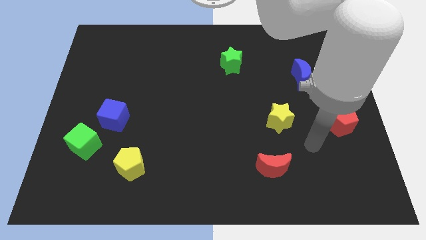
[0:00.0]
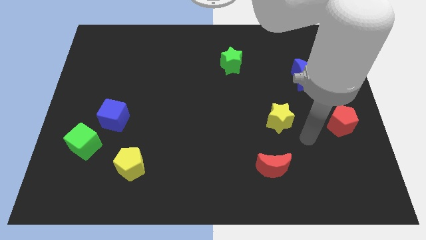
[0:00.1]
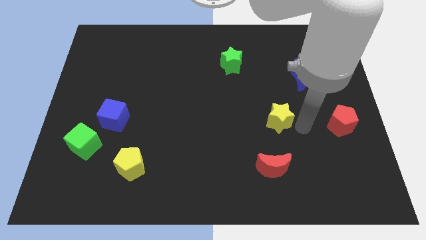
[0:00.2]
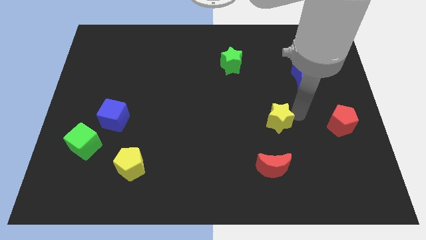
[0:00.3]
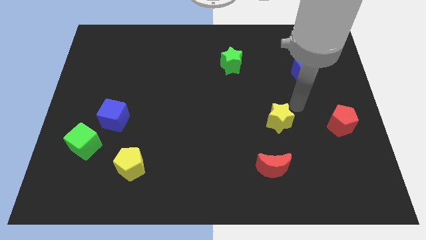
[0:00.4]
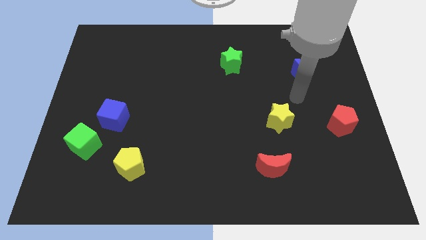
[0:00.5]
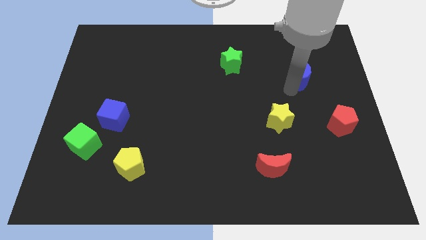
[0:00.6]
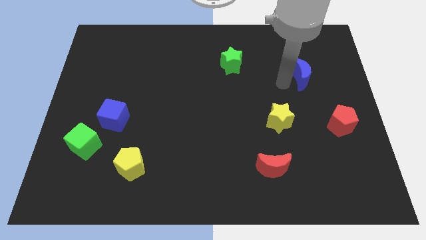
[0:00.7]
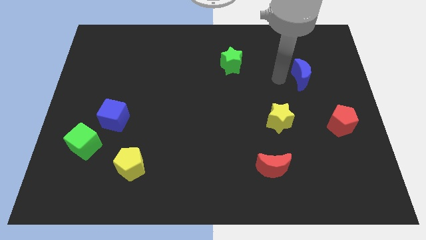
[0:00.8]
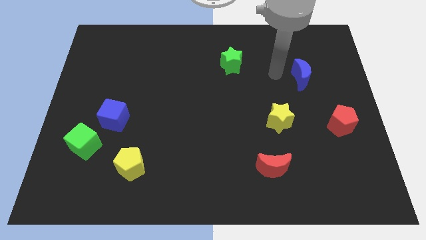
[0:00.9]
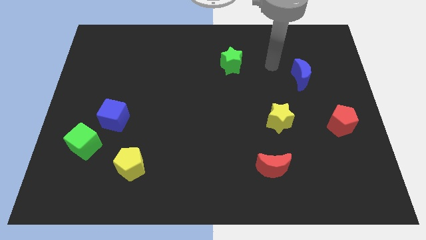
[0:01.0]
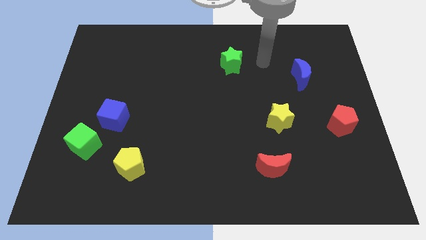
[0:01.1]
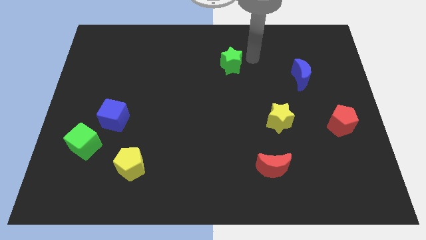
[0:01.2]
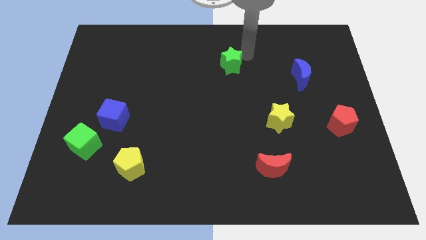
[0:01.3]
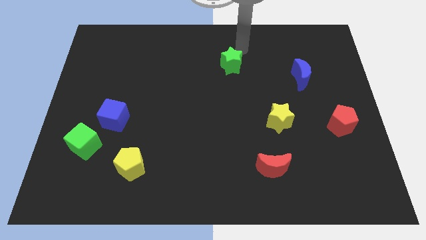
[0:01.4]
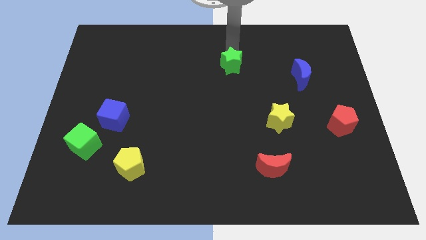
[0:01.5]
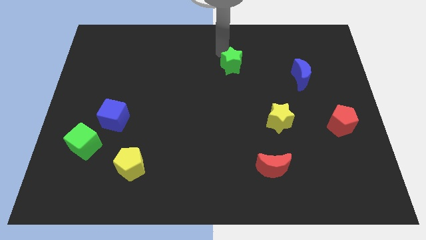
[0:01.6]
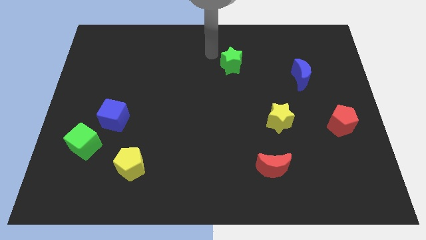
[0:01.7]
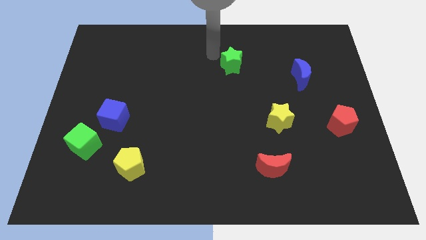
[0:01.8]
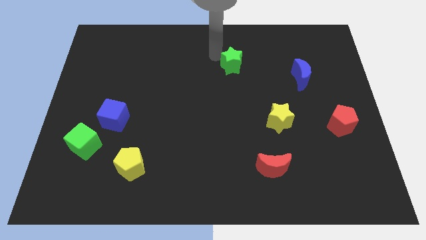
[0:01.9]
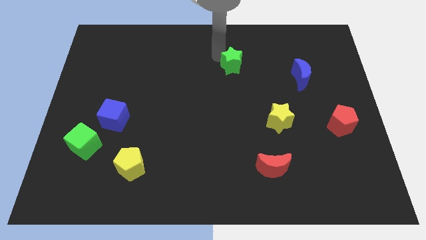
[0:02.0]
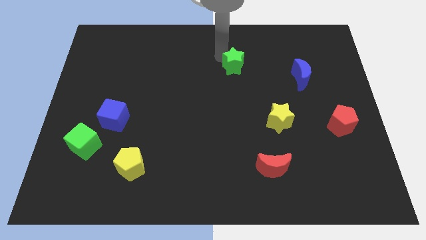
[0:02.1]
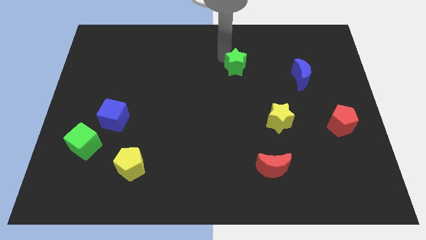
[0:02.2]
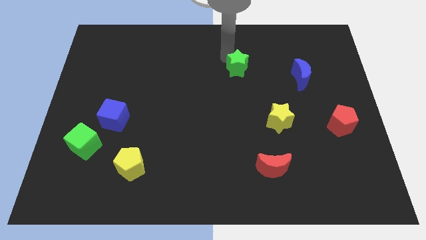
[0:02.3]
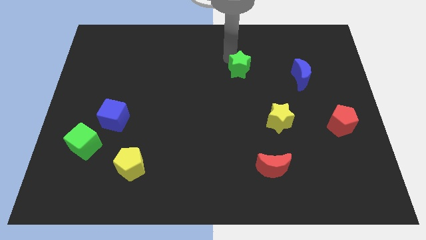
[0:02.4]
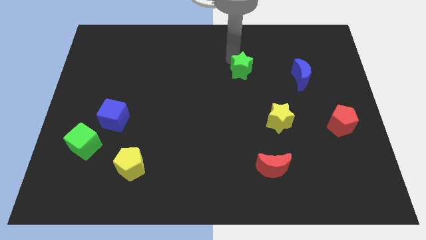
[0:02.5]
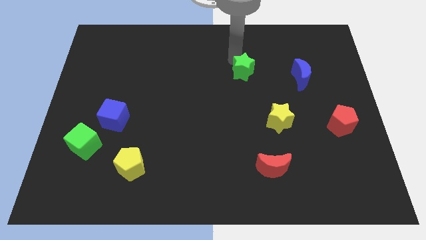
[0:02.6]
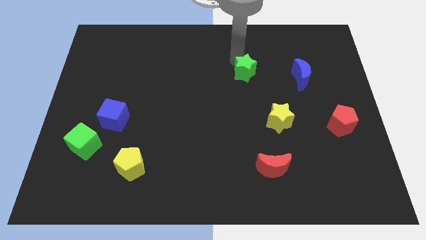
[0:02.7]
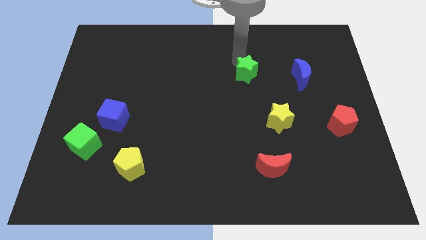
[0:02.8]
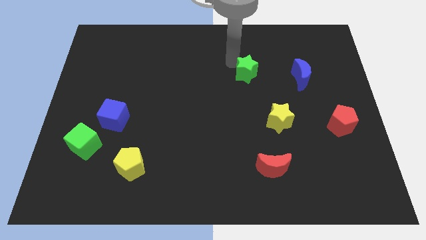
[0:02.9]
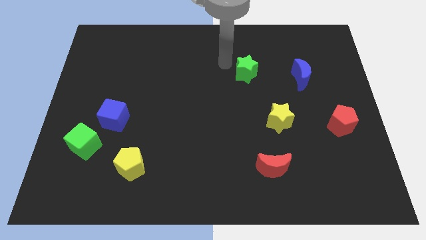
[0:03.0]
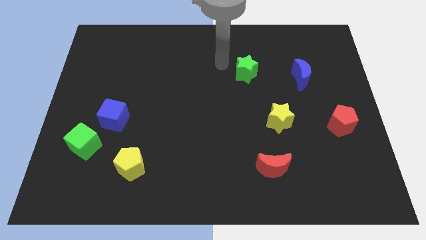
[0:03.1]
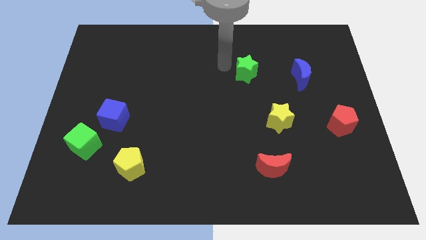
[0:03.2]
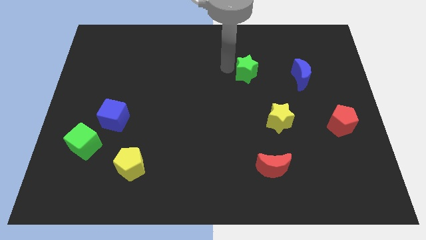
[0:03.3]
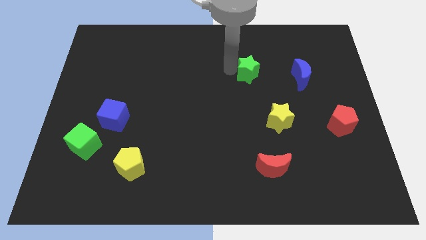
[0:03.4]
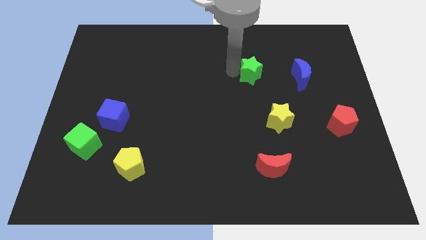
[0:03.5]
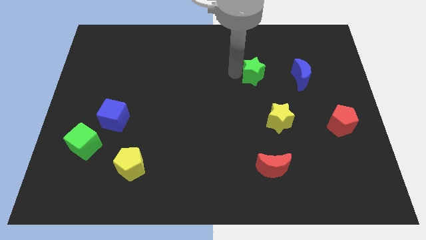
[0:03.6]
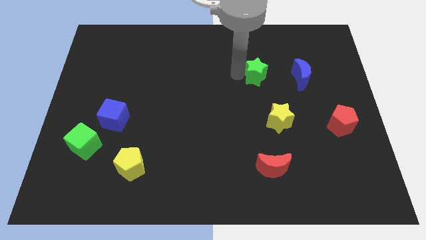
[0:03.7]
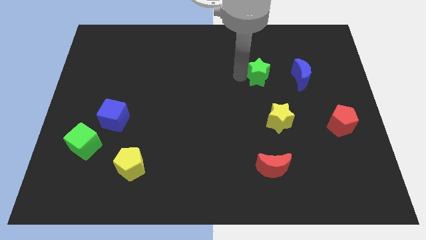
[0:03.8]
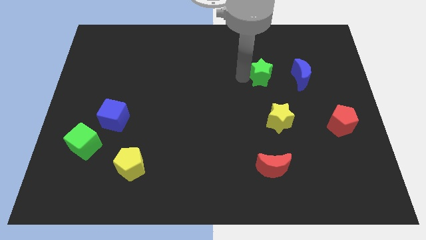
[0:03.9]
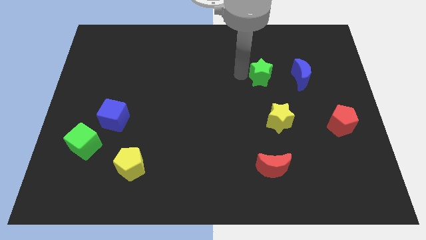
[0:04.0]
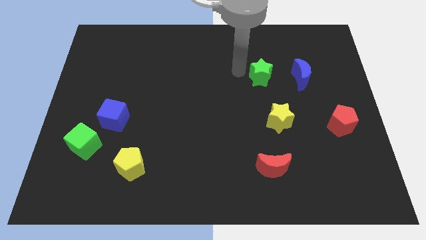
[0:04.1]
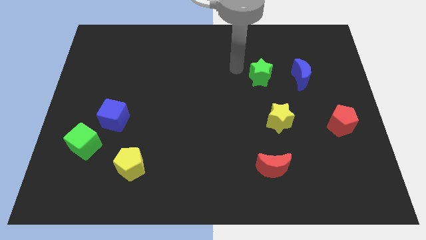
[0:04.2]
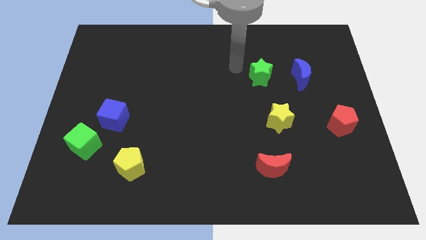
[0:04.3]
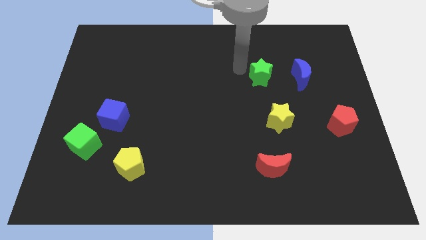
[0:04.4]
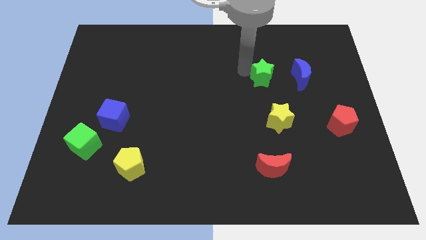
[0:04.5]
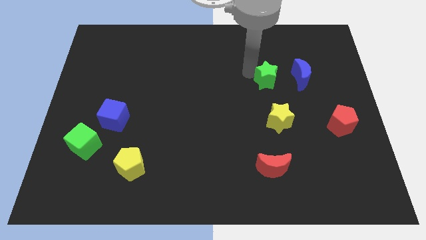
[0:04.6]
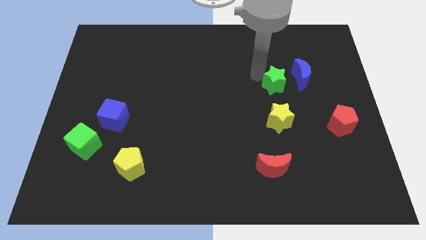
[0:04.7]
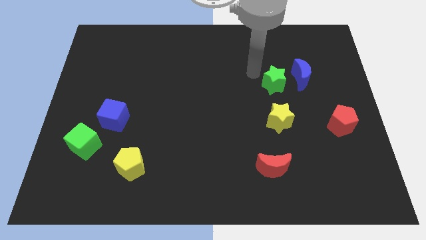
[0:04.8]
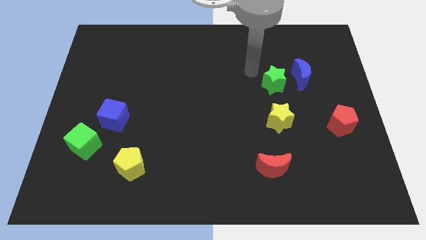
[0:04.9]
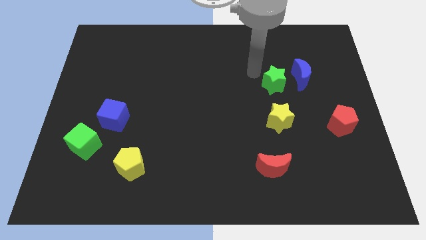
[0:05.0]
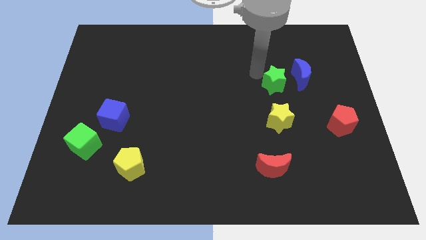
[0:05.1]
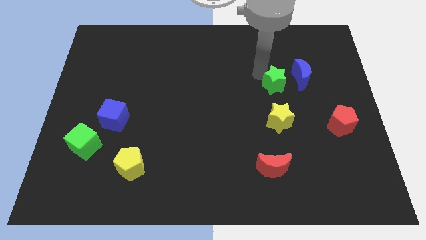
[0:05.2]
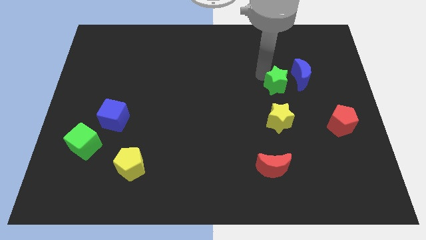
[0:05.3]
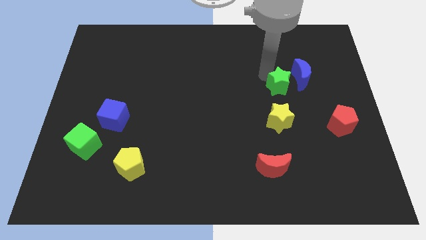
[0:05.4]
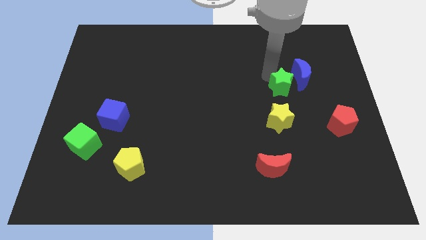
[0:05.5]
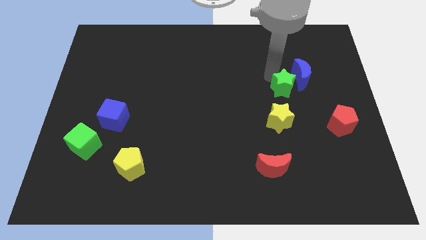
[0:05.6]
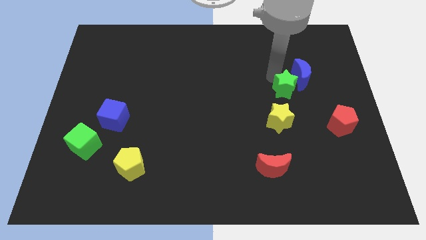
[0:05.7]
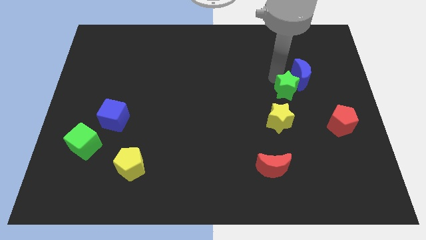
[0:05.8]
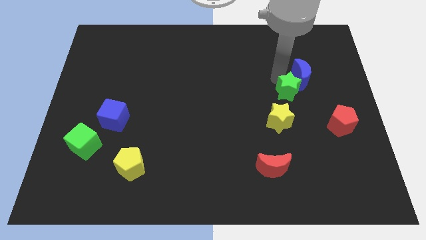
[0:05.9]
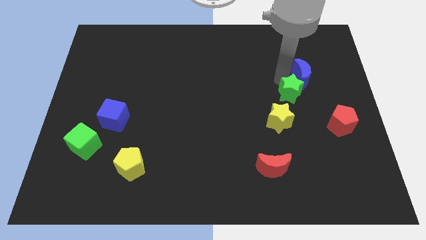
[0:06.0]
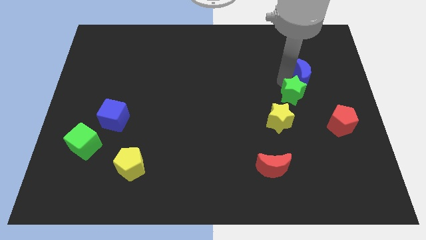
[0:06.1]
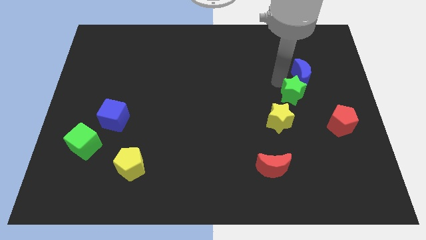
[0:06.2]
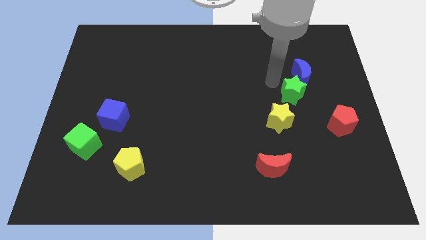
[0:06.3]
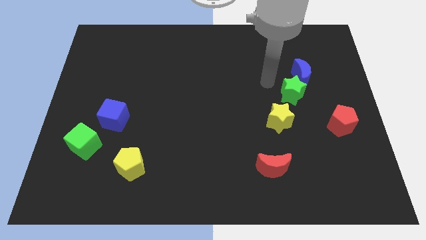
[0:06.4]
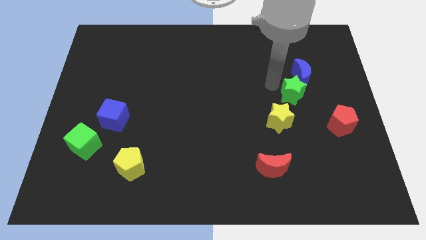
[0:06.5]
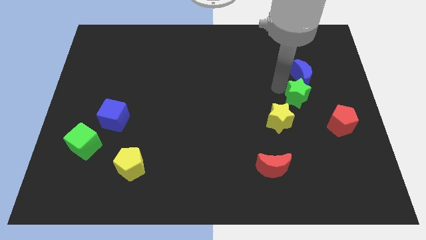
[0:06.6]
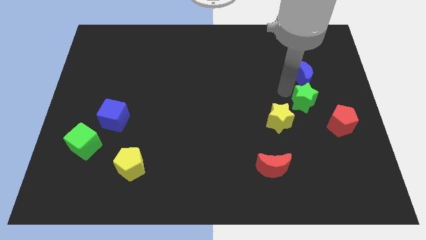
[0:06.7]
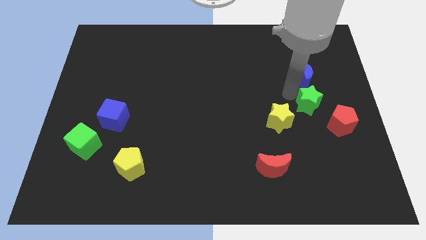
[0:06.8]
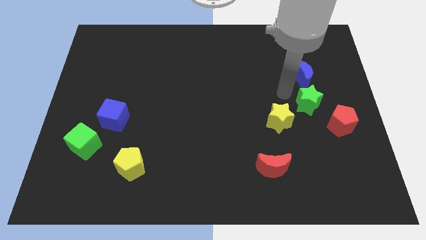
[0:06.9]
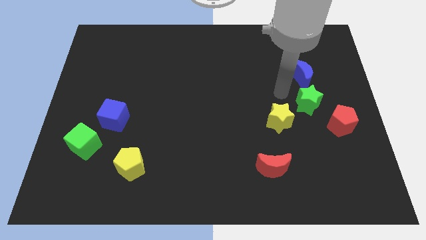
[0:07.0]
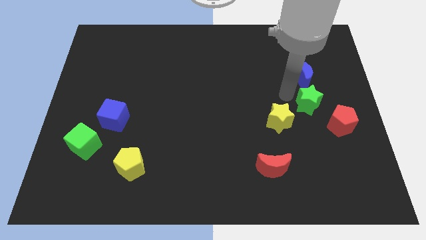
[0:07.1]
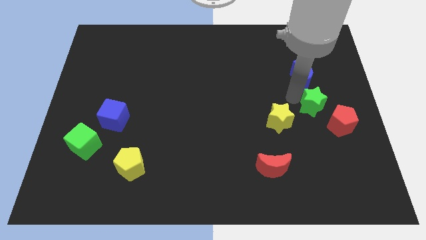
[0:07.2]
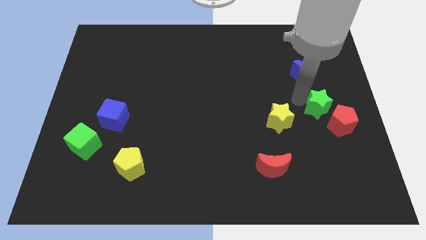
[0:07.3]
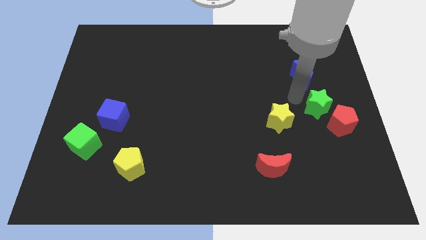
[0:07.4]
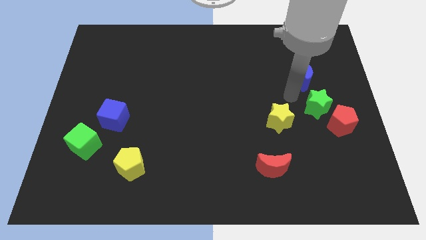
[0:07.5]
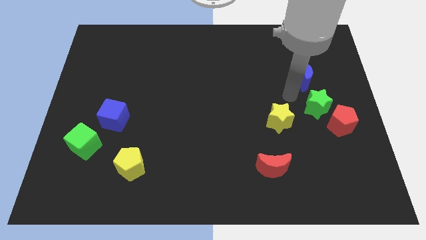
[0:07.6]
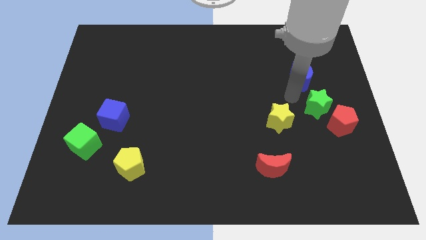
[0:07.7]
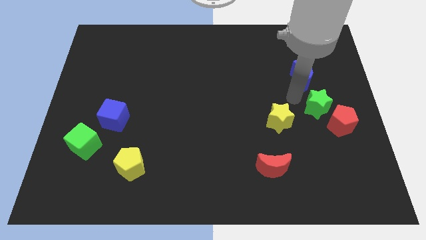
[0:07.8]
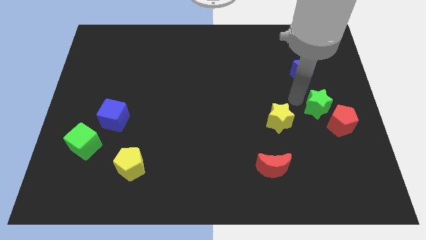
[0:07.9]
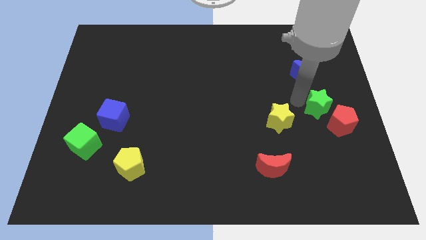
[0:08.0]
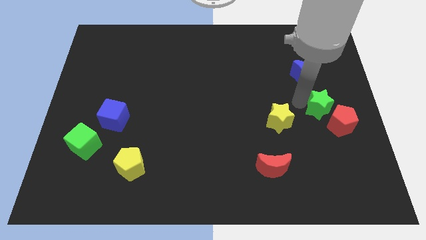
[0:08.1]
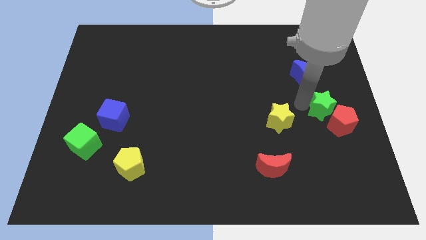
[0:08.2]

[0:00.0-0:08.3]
move the green star close to the red pentagon
